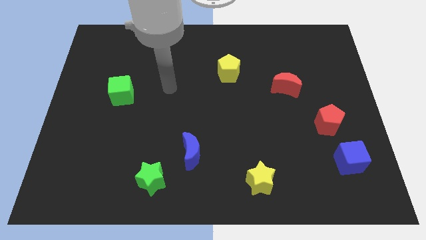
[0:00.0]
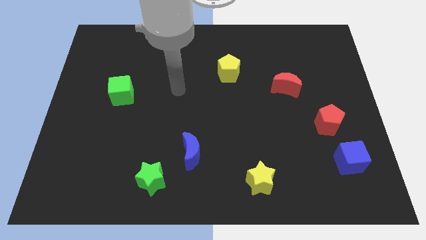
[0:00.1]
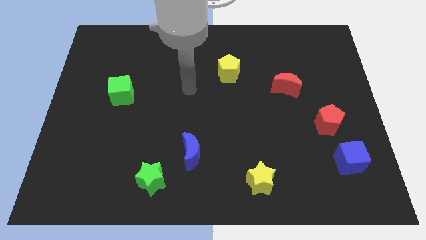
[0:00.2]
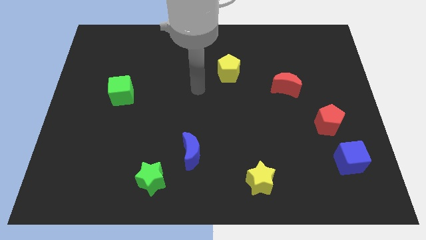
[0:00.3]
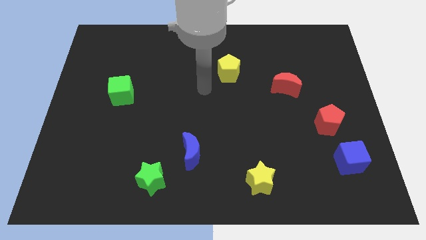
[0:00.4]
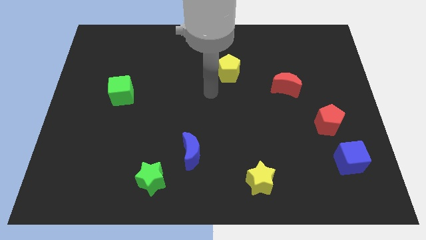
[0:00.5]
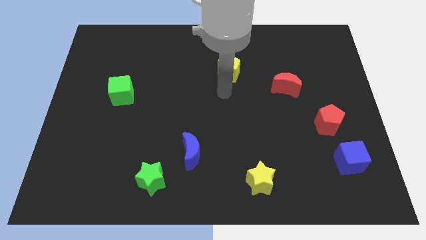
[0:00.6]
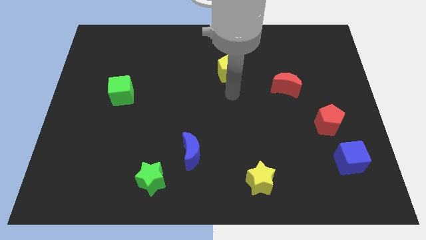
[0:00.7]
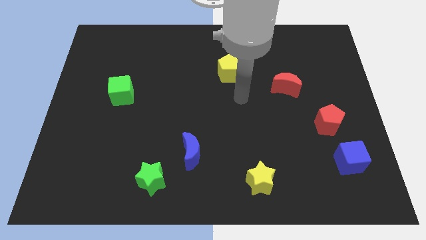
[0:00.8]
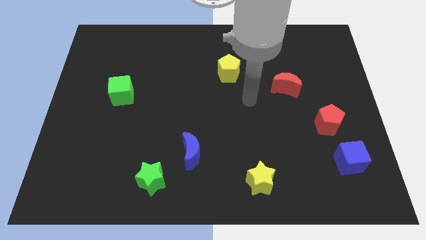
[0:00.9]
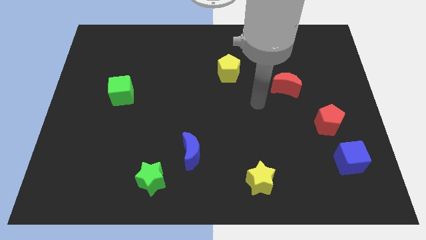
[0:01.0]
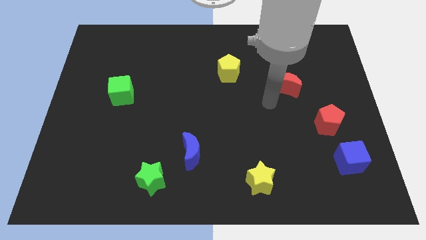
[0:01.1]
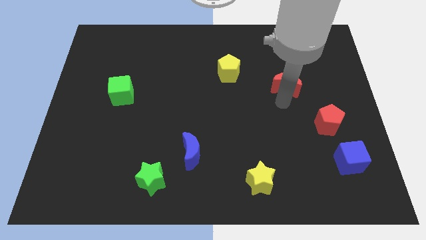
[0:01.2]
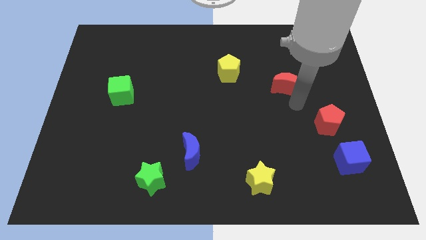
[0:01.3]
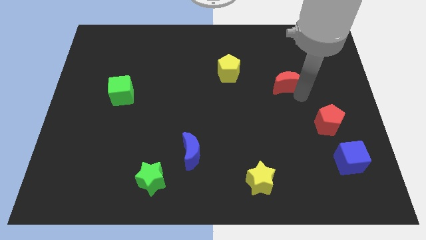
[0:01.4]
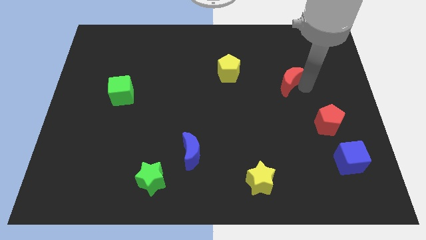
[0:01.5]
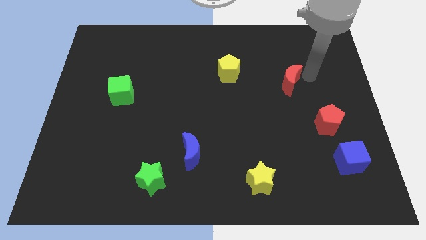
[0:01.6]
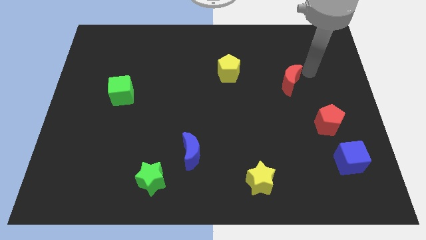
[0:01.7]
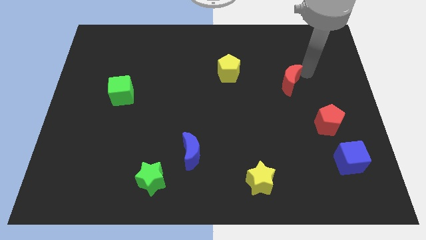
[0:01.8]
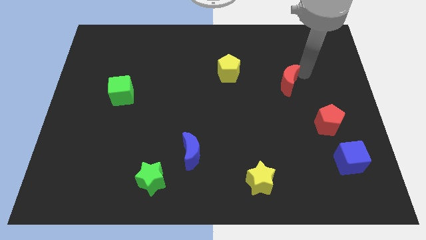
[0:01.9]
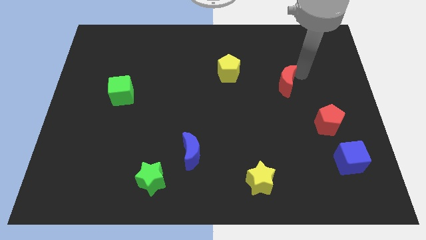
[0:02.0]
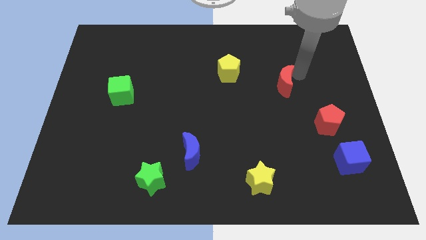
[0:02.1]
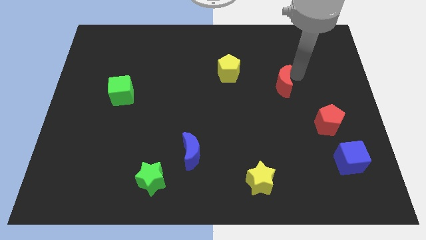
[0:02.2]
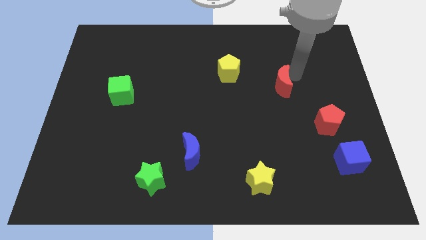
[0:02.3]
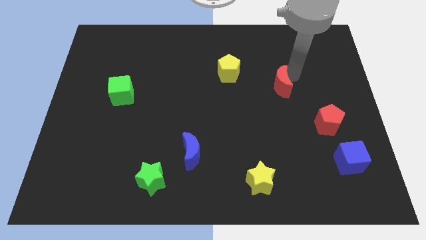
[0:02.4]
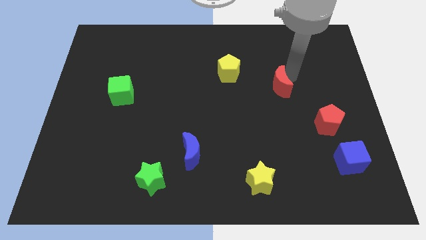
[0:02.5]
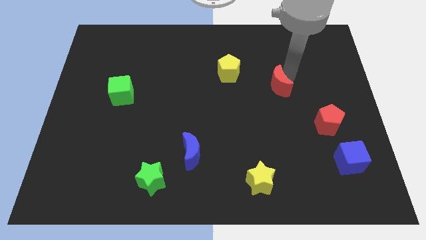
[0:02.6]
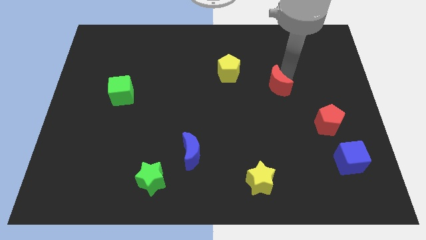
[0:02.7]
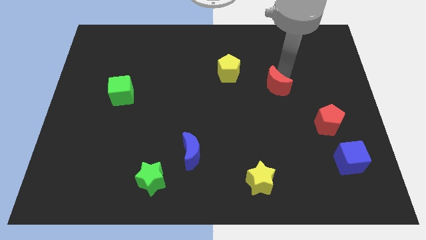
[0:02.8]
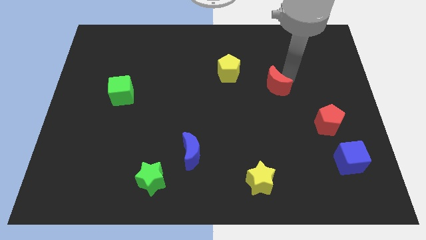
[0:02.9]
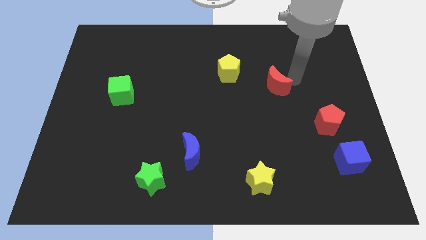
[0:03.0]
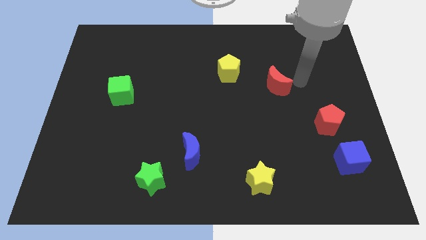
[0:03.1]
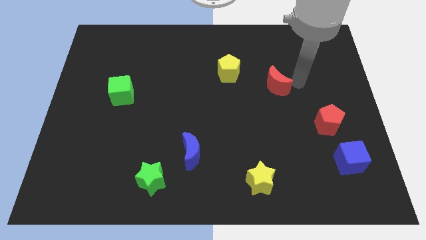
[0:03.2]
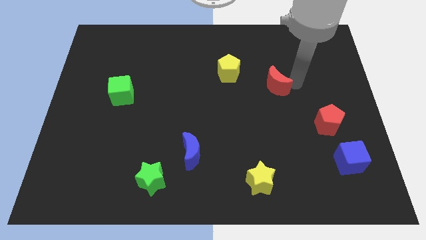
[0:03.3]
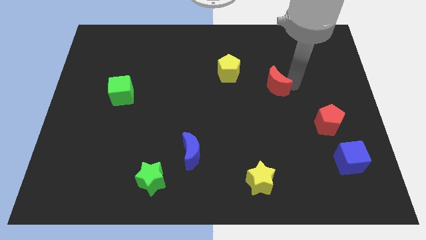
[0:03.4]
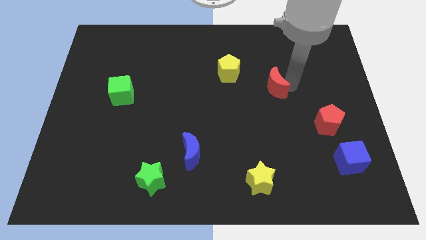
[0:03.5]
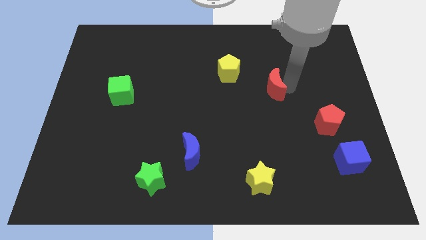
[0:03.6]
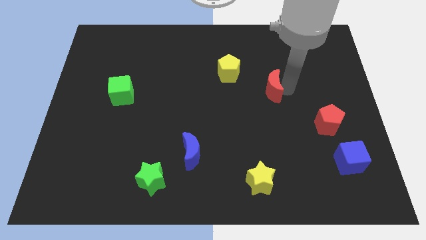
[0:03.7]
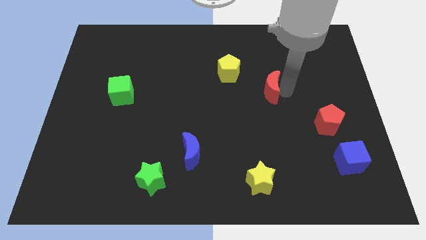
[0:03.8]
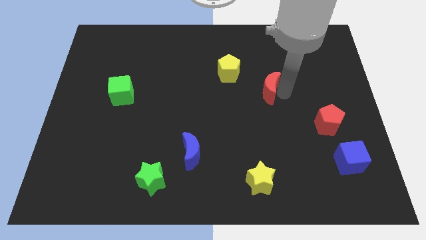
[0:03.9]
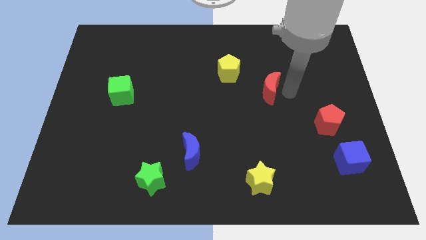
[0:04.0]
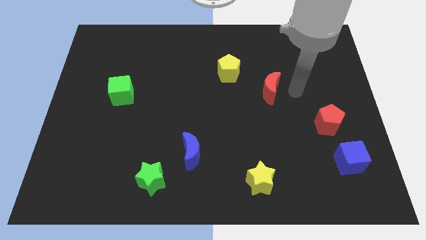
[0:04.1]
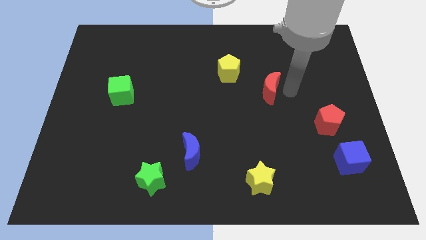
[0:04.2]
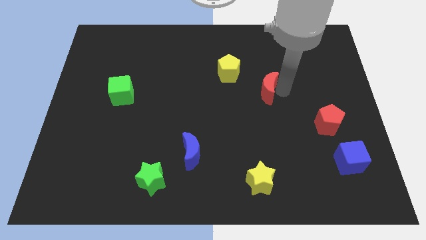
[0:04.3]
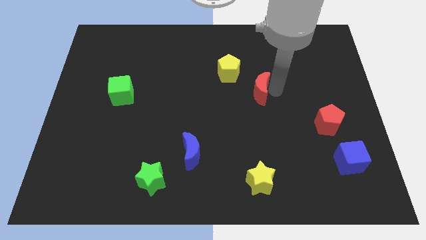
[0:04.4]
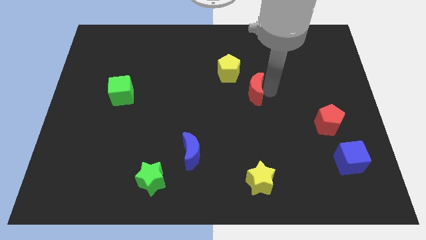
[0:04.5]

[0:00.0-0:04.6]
slightly move the red moon to the left

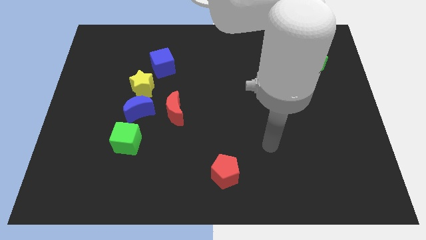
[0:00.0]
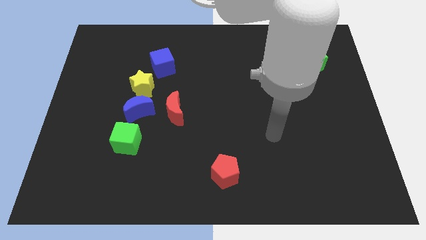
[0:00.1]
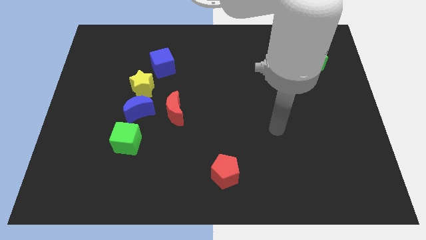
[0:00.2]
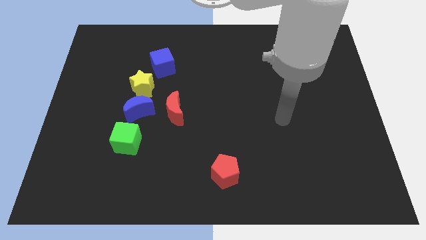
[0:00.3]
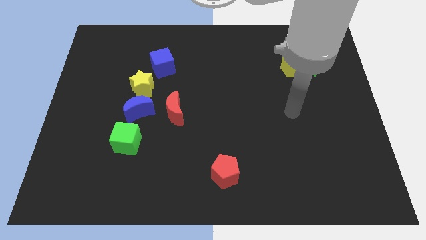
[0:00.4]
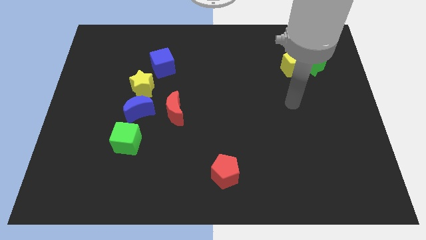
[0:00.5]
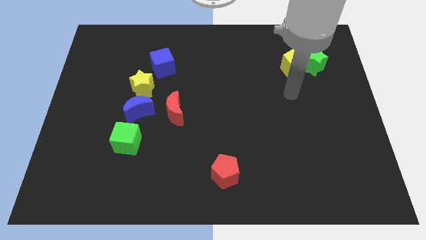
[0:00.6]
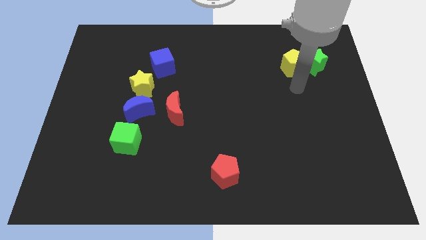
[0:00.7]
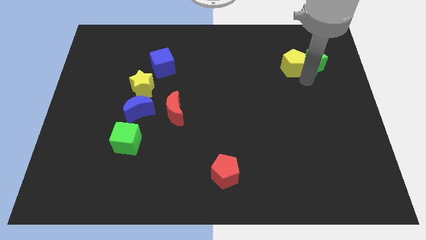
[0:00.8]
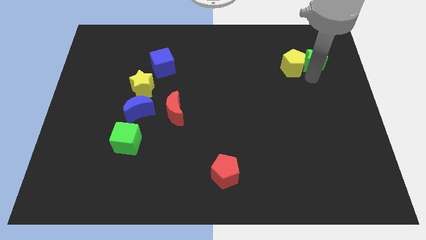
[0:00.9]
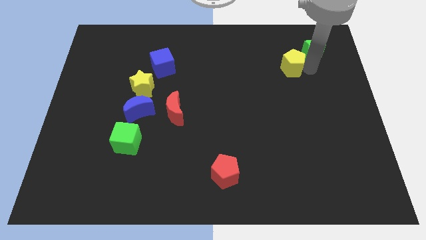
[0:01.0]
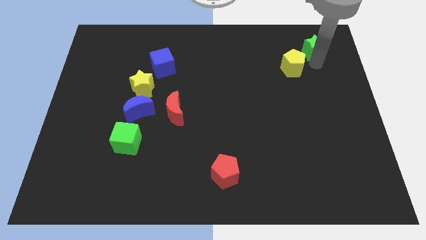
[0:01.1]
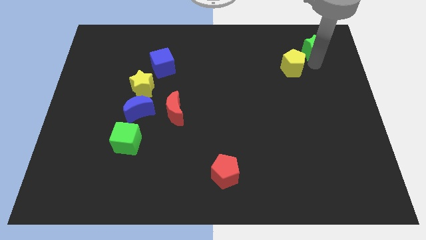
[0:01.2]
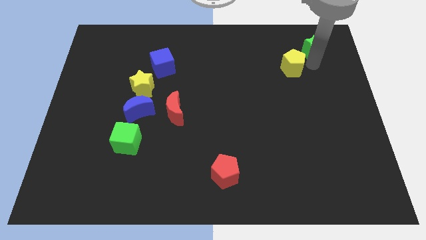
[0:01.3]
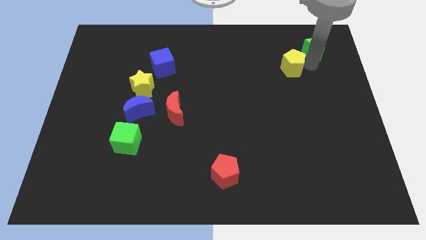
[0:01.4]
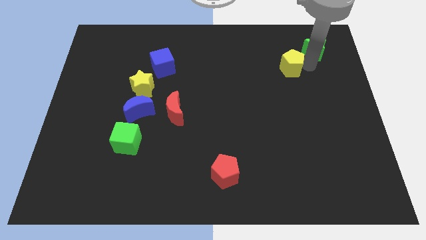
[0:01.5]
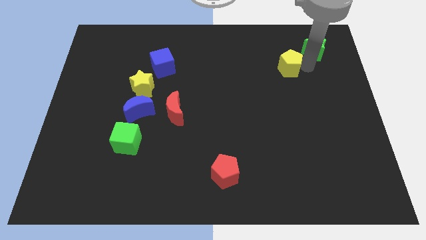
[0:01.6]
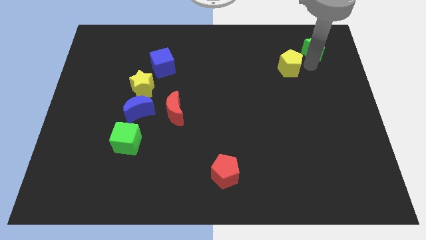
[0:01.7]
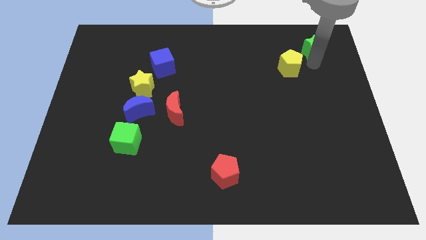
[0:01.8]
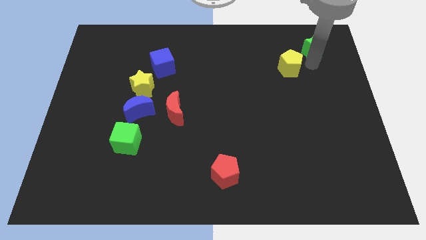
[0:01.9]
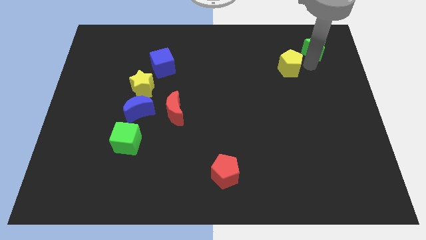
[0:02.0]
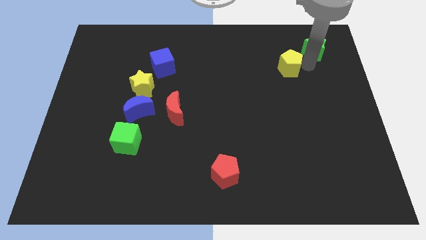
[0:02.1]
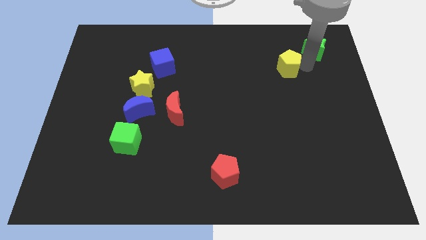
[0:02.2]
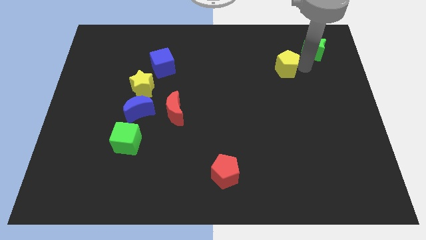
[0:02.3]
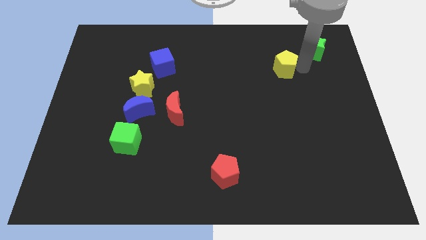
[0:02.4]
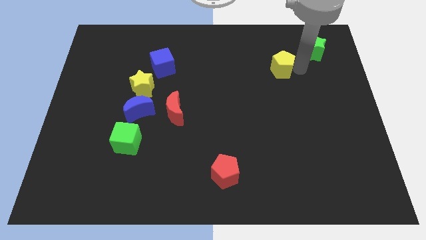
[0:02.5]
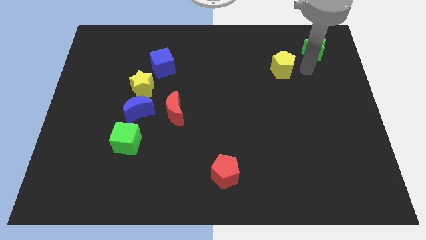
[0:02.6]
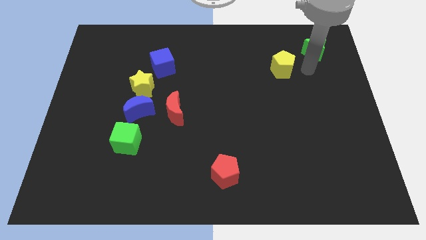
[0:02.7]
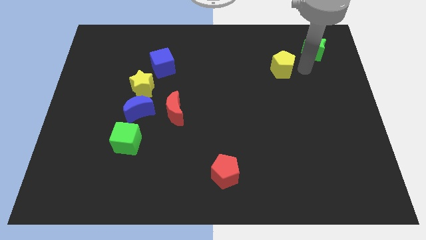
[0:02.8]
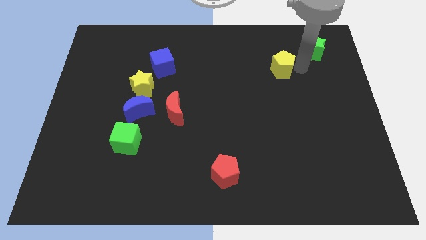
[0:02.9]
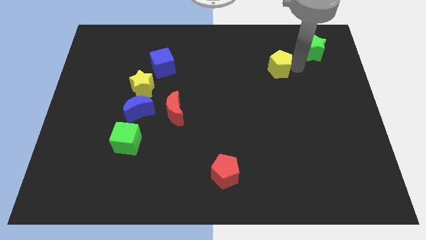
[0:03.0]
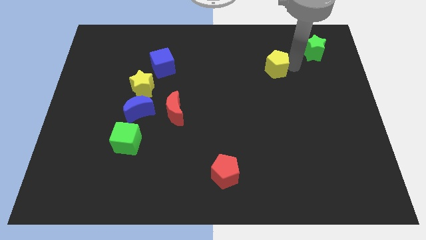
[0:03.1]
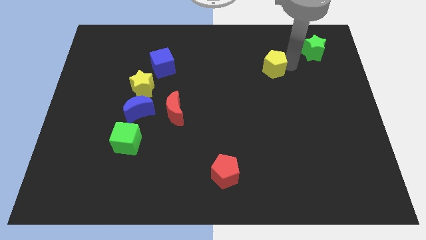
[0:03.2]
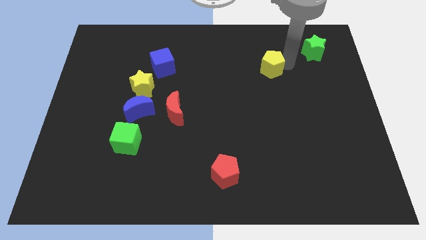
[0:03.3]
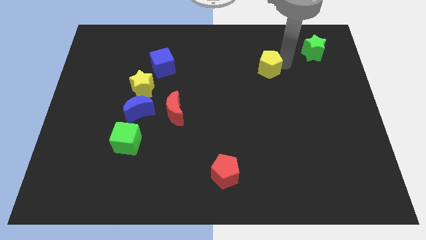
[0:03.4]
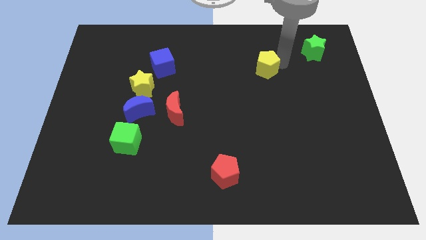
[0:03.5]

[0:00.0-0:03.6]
slightly move the yellow pentagon to the left
